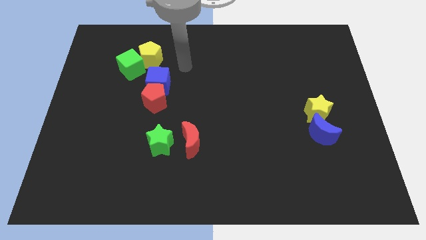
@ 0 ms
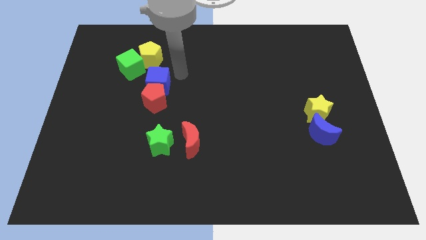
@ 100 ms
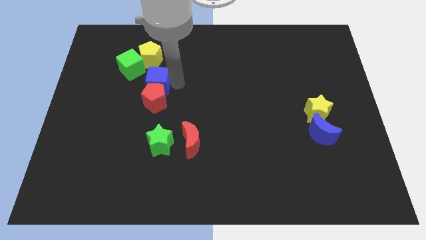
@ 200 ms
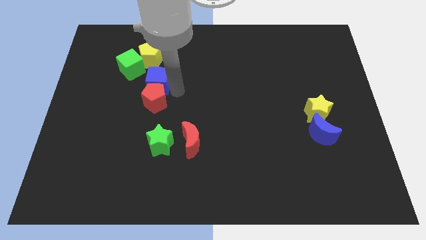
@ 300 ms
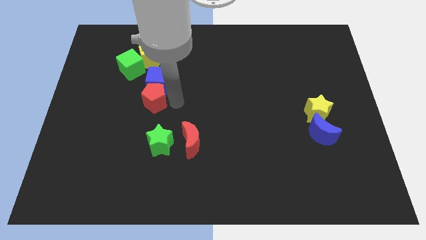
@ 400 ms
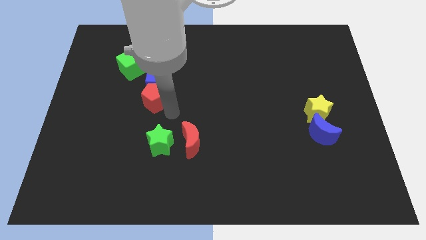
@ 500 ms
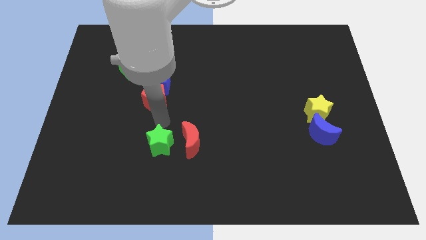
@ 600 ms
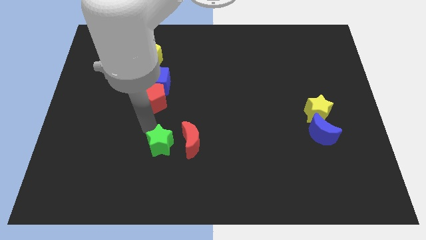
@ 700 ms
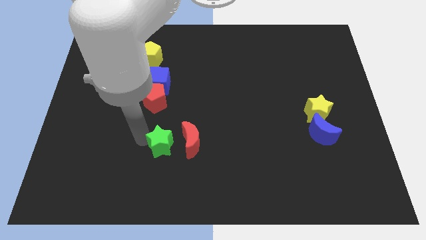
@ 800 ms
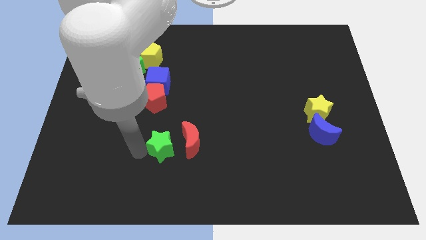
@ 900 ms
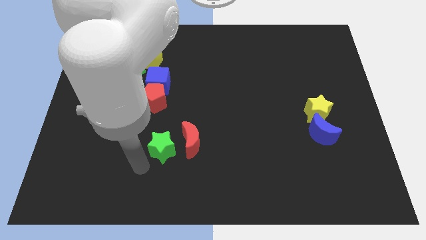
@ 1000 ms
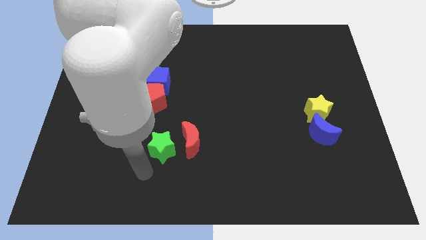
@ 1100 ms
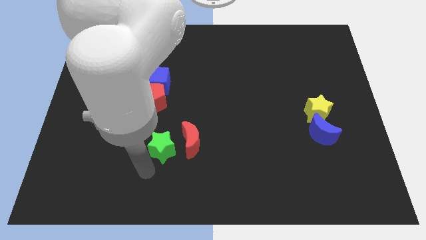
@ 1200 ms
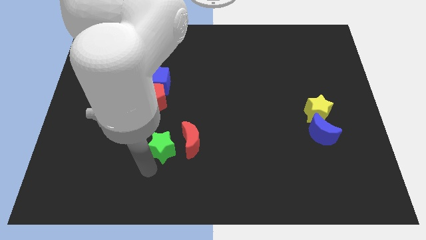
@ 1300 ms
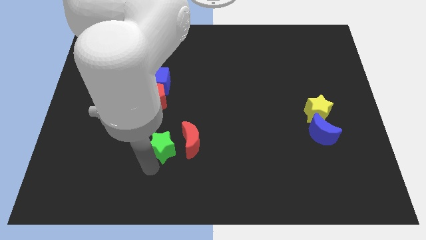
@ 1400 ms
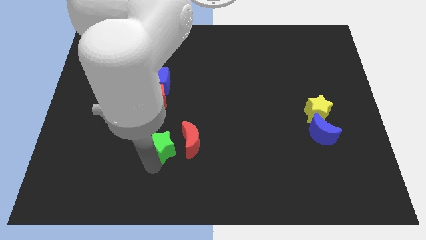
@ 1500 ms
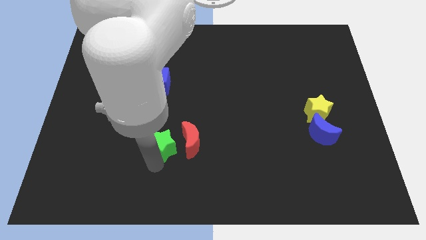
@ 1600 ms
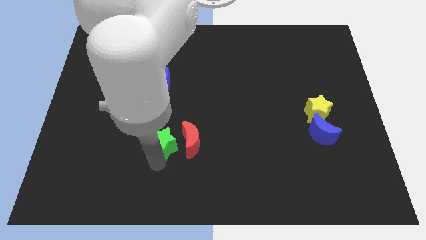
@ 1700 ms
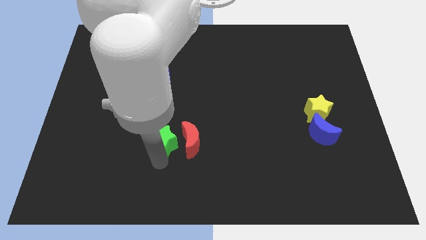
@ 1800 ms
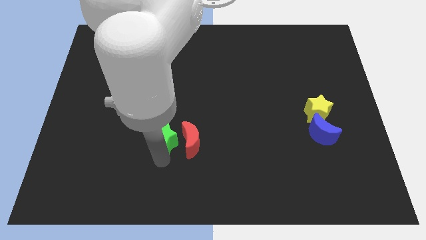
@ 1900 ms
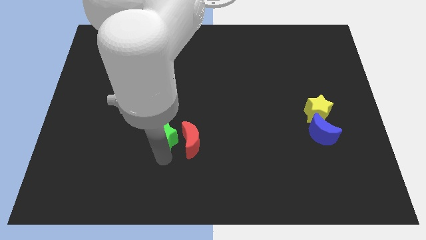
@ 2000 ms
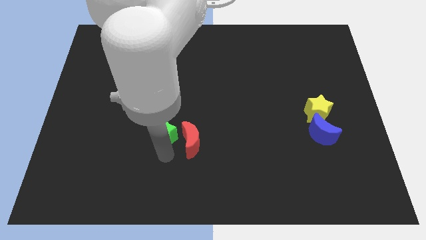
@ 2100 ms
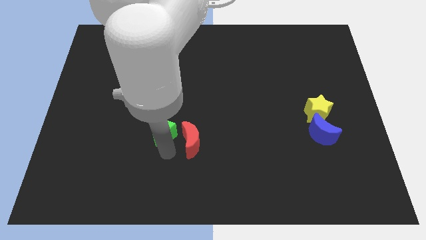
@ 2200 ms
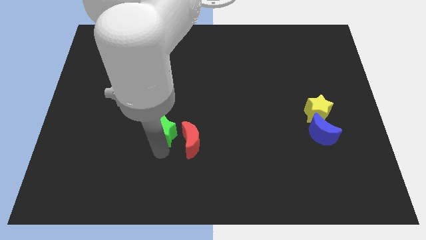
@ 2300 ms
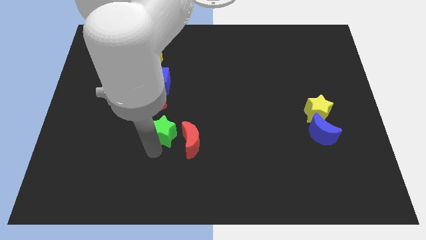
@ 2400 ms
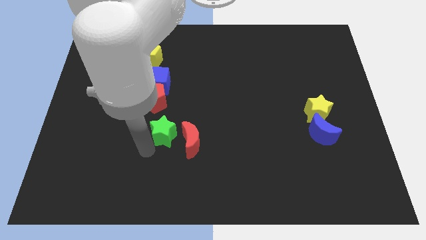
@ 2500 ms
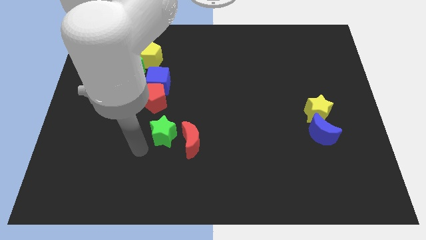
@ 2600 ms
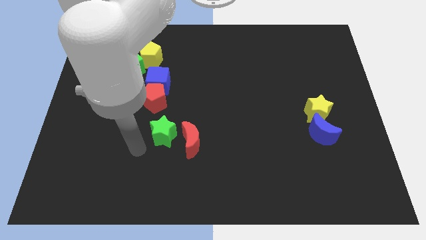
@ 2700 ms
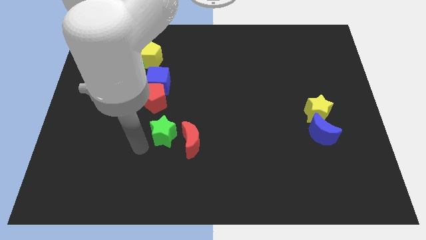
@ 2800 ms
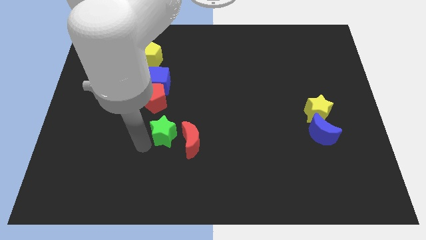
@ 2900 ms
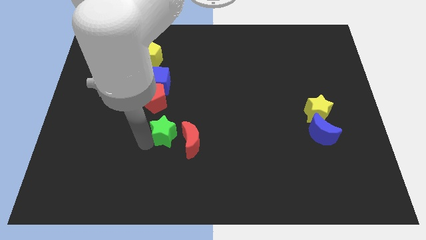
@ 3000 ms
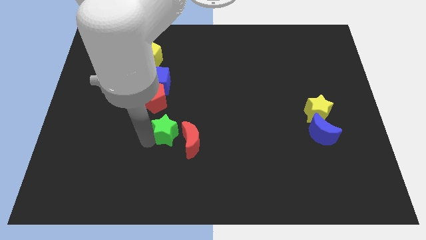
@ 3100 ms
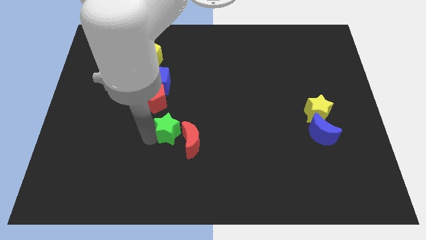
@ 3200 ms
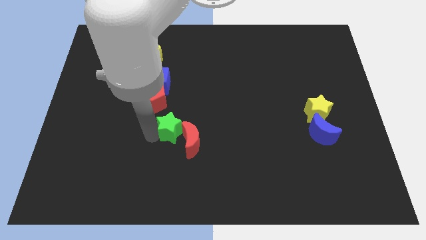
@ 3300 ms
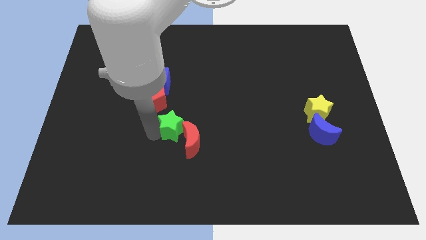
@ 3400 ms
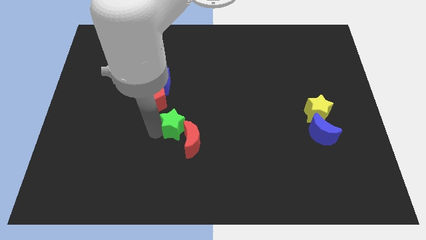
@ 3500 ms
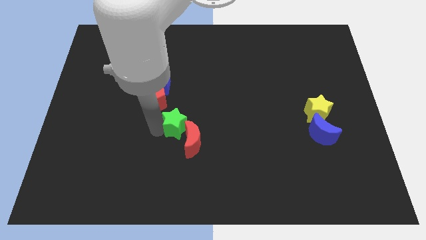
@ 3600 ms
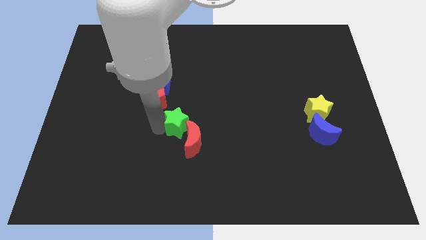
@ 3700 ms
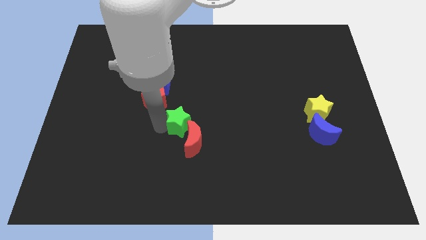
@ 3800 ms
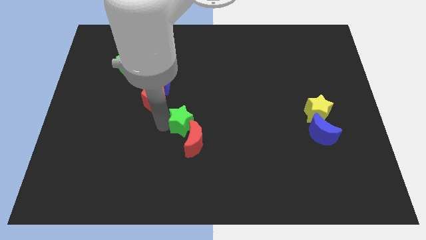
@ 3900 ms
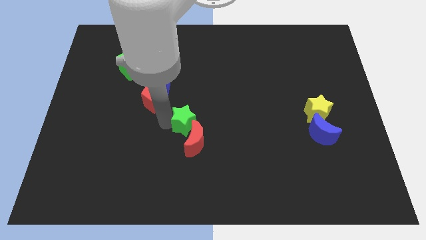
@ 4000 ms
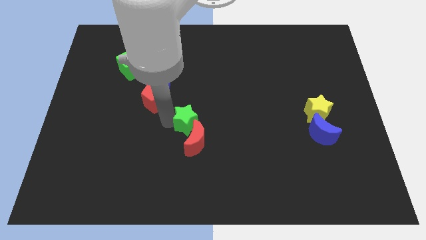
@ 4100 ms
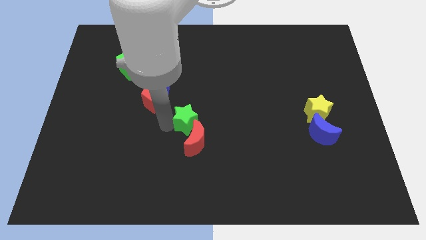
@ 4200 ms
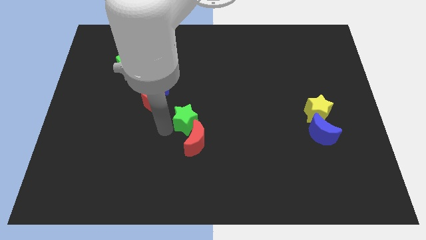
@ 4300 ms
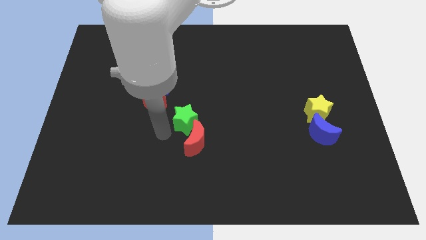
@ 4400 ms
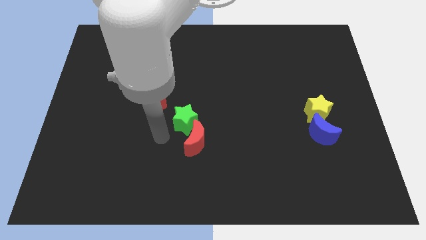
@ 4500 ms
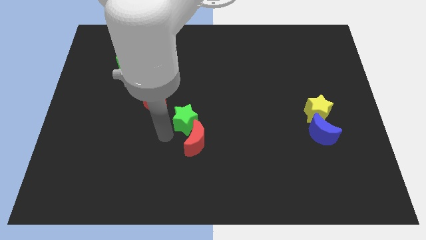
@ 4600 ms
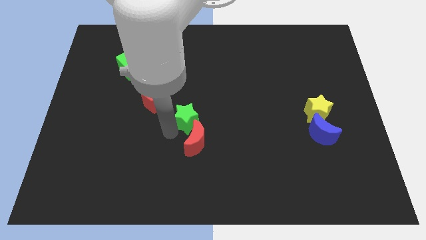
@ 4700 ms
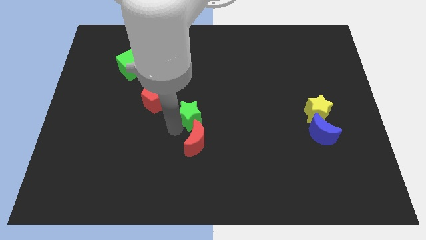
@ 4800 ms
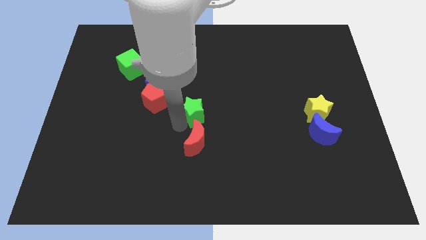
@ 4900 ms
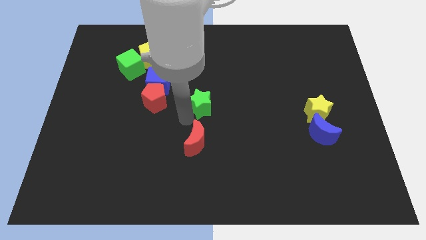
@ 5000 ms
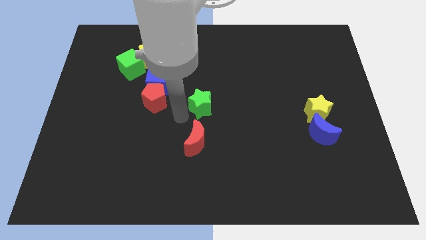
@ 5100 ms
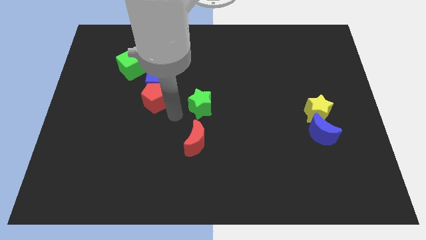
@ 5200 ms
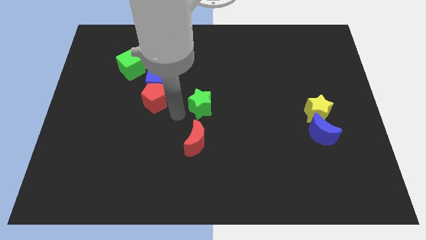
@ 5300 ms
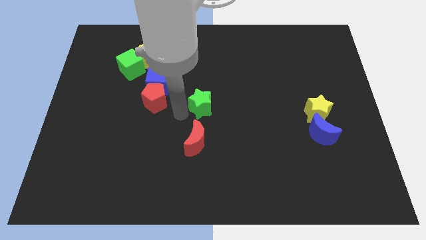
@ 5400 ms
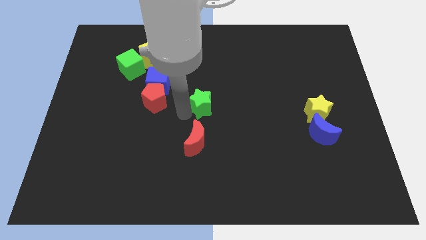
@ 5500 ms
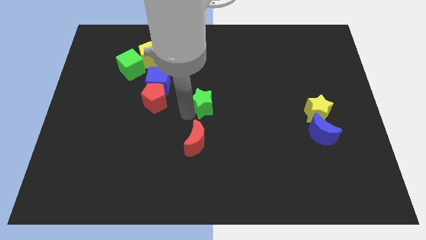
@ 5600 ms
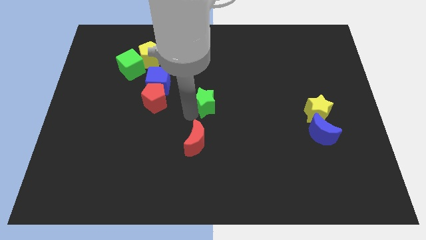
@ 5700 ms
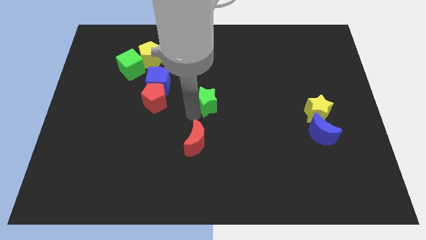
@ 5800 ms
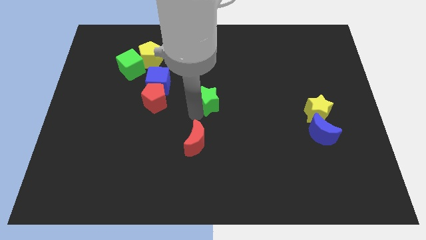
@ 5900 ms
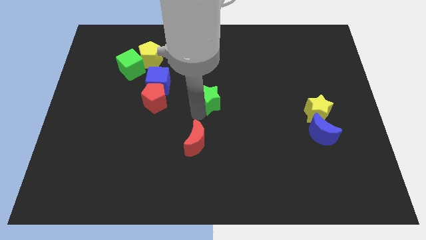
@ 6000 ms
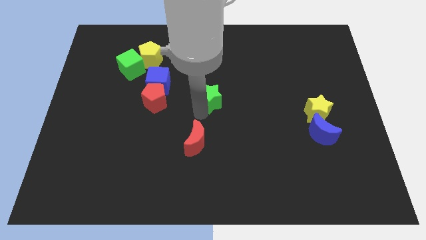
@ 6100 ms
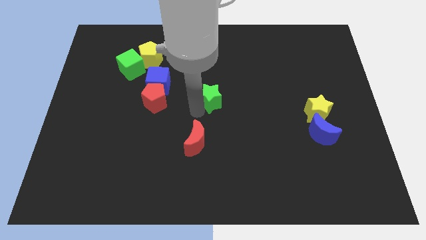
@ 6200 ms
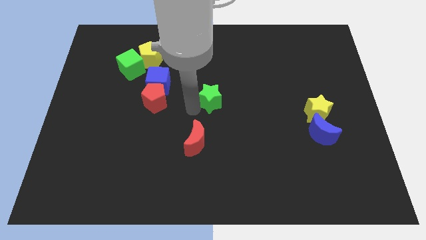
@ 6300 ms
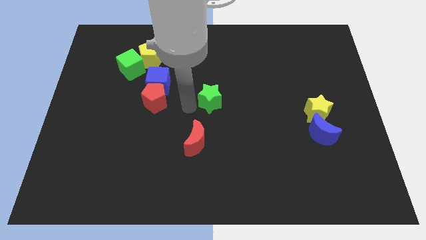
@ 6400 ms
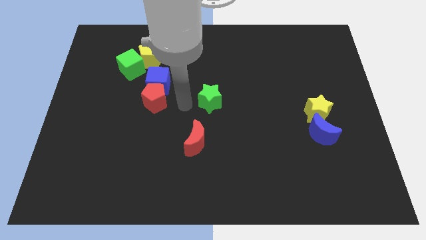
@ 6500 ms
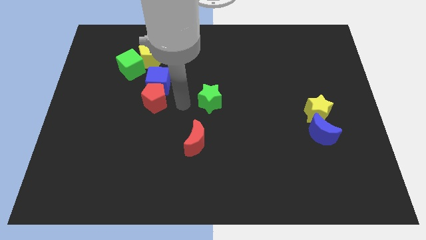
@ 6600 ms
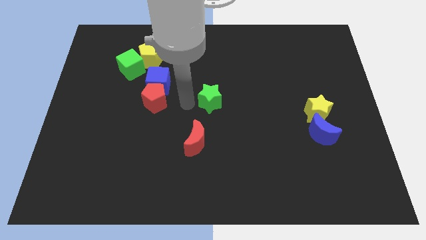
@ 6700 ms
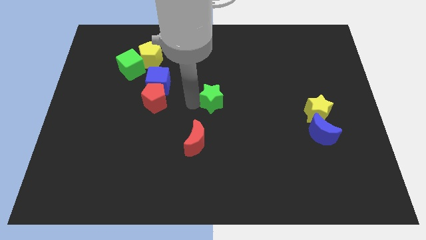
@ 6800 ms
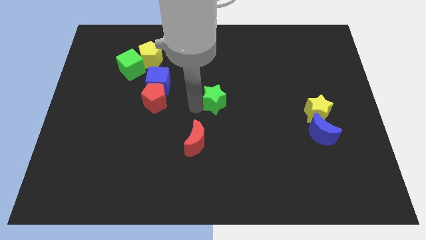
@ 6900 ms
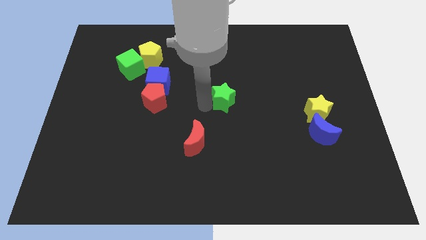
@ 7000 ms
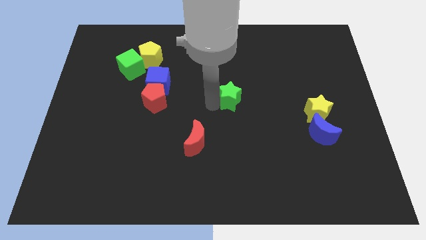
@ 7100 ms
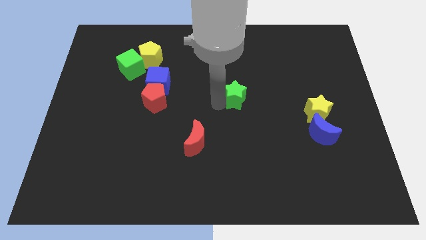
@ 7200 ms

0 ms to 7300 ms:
push the green star upwards and then to the right

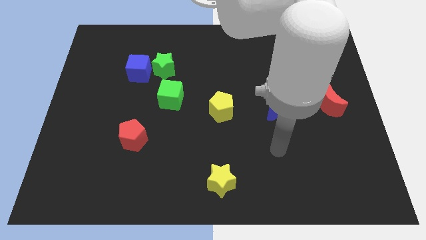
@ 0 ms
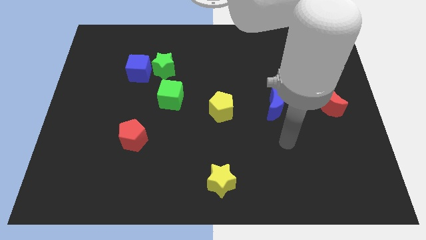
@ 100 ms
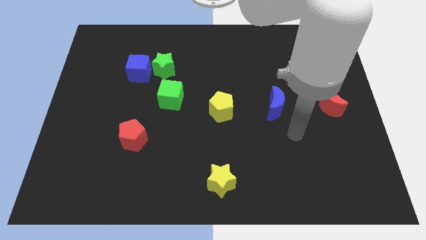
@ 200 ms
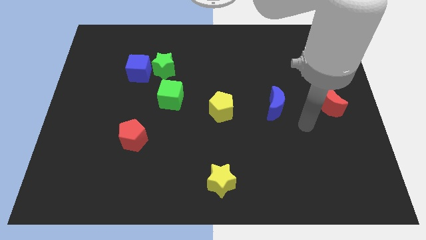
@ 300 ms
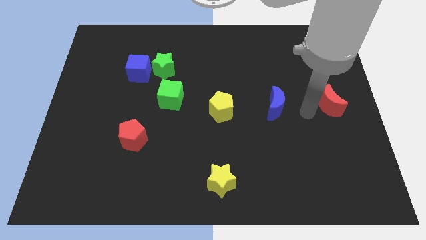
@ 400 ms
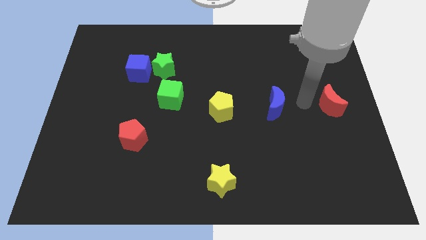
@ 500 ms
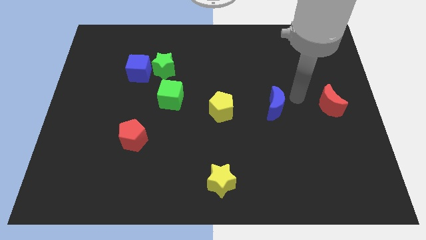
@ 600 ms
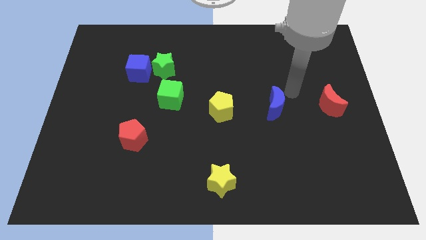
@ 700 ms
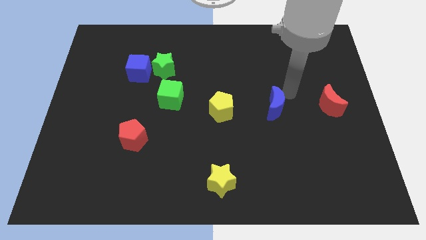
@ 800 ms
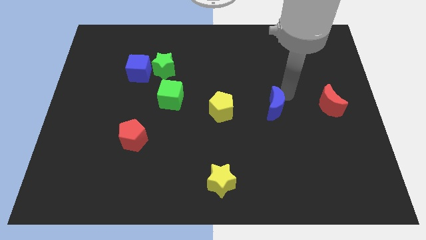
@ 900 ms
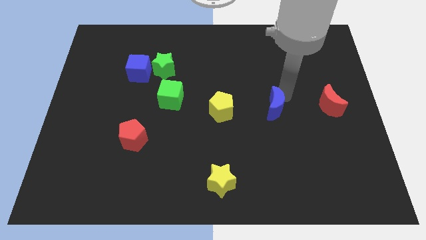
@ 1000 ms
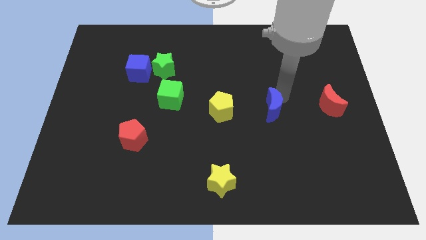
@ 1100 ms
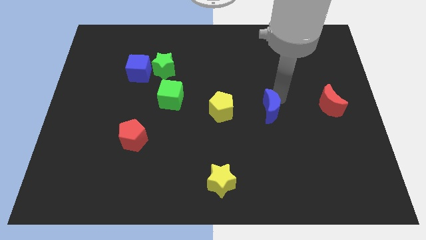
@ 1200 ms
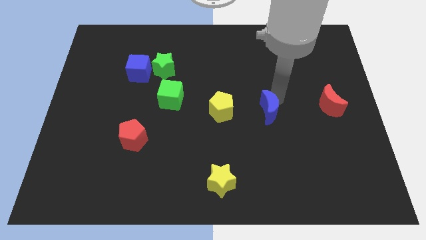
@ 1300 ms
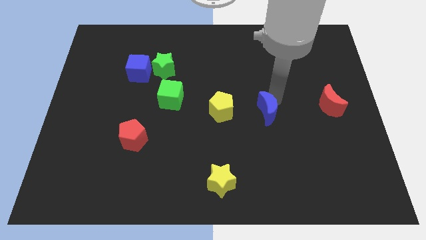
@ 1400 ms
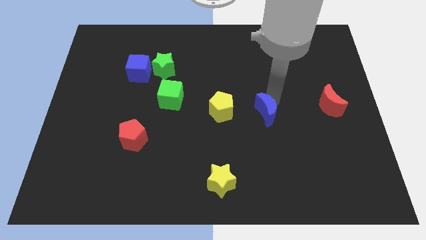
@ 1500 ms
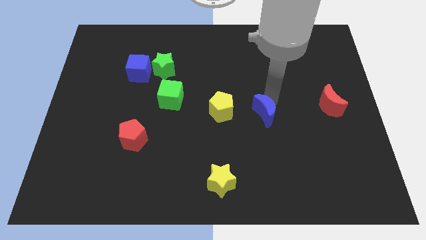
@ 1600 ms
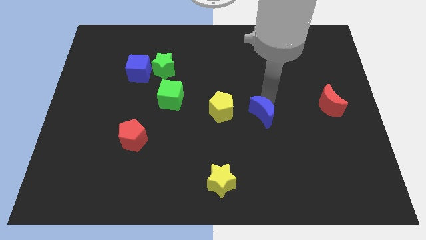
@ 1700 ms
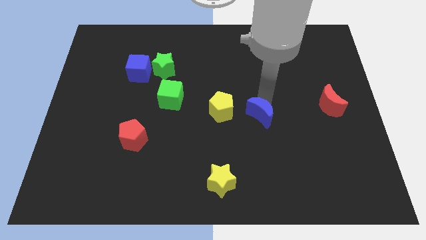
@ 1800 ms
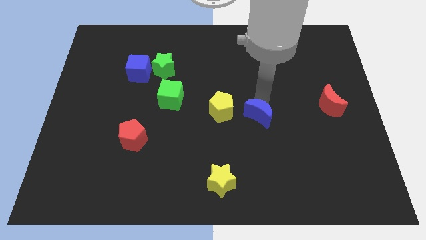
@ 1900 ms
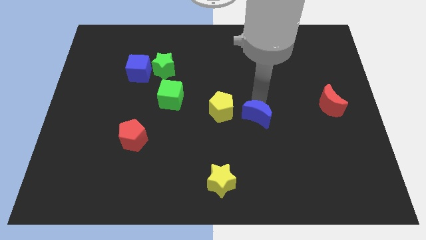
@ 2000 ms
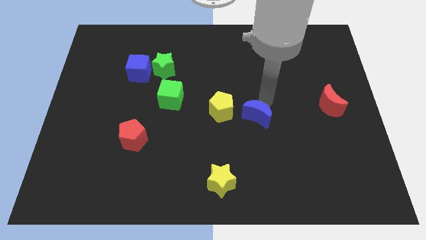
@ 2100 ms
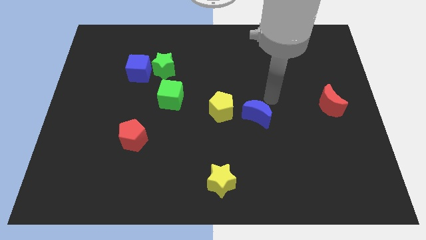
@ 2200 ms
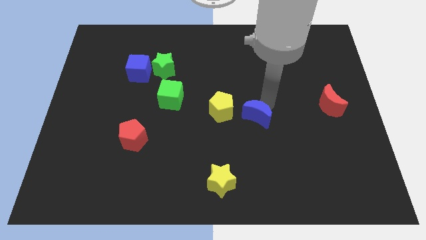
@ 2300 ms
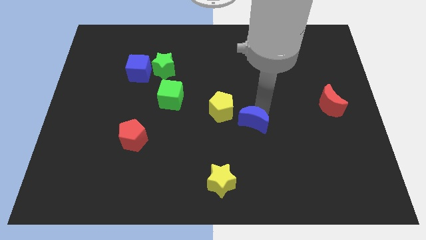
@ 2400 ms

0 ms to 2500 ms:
slide the blue moon downwards and left diagonally a little
